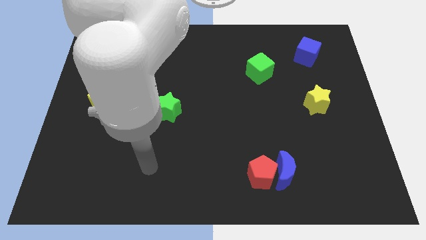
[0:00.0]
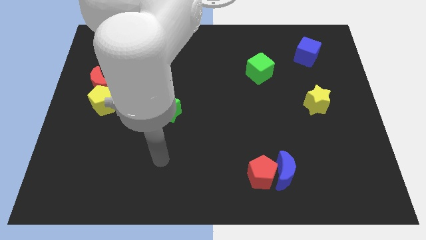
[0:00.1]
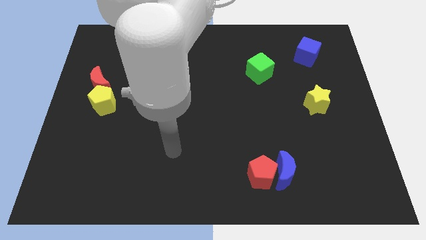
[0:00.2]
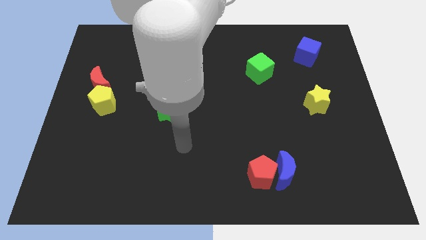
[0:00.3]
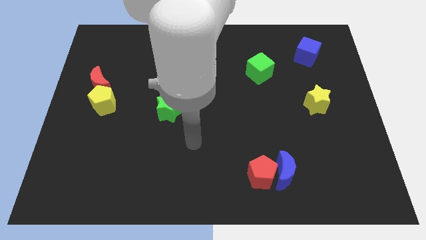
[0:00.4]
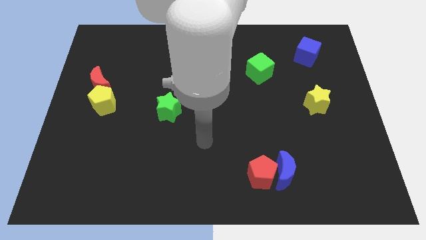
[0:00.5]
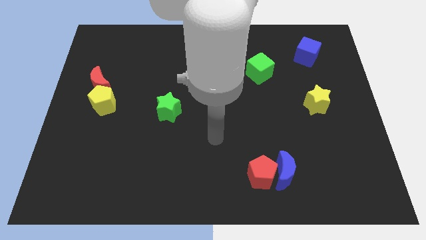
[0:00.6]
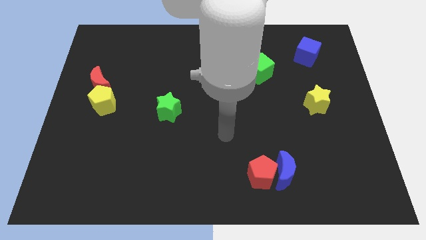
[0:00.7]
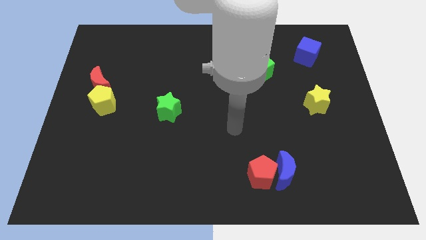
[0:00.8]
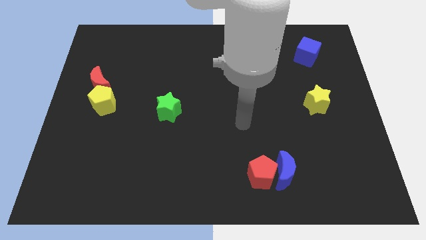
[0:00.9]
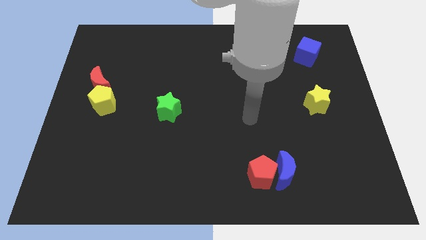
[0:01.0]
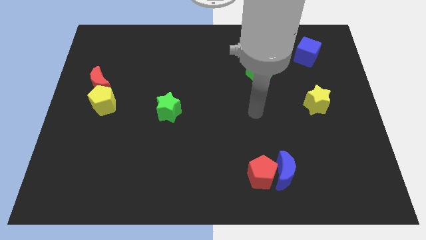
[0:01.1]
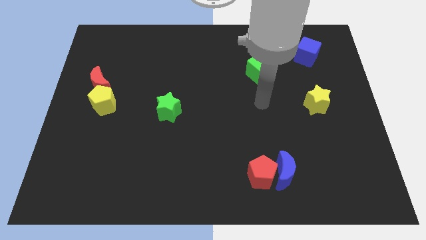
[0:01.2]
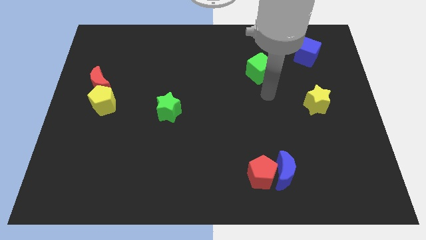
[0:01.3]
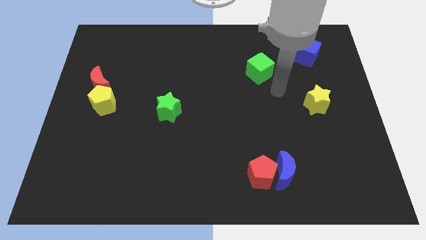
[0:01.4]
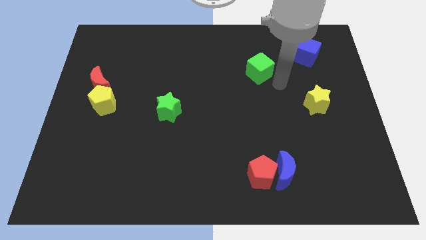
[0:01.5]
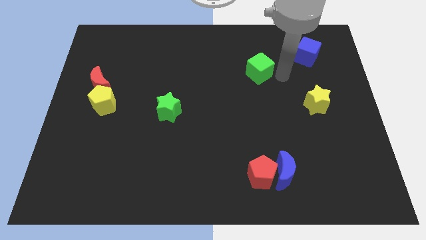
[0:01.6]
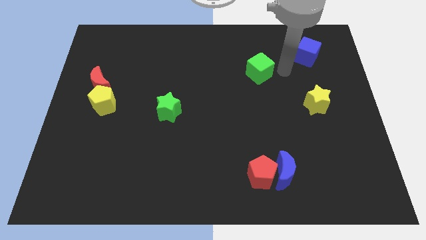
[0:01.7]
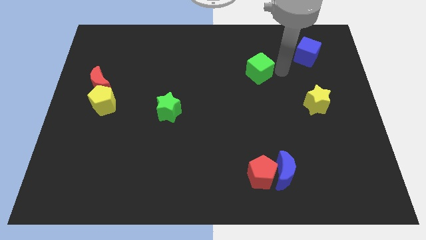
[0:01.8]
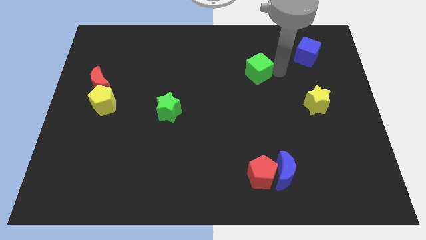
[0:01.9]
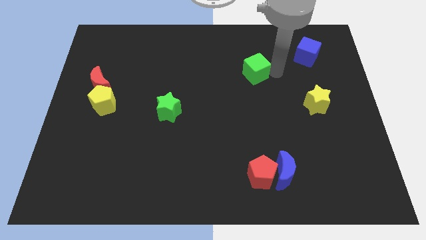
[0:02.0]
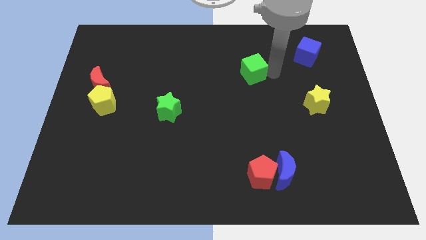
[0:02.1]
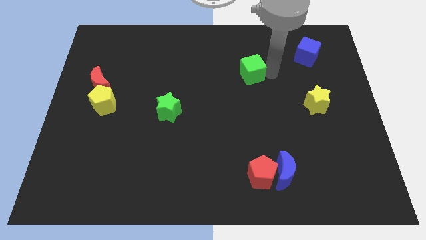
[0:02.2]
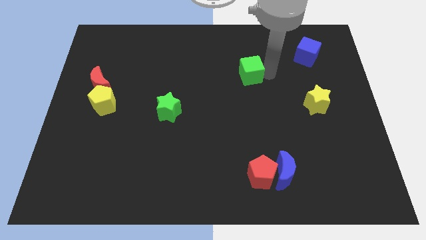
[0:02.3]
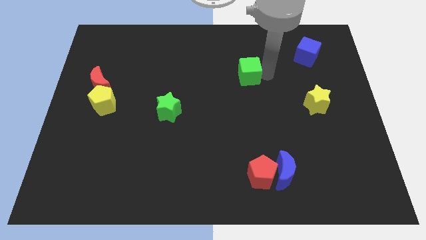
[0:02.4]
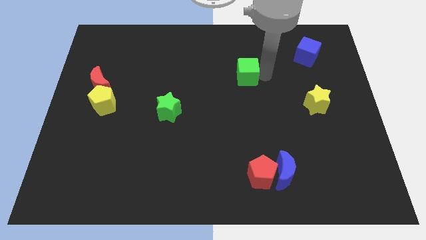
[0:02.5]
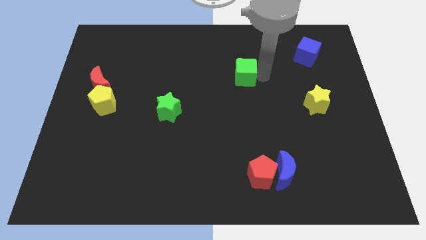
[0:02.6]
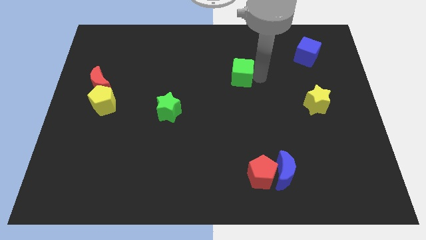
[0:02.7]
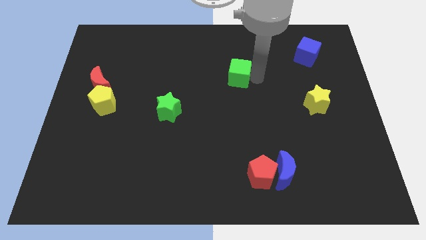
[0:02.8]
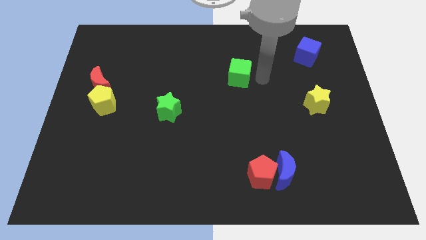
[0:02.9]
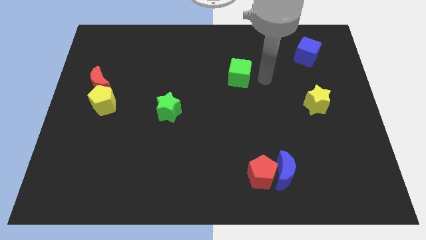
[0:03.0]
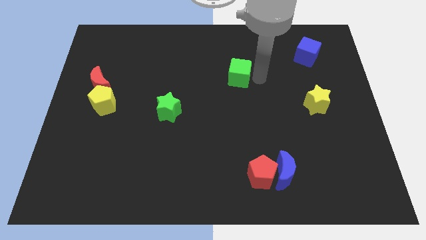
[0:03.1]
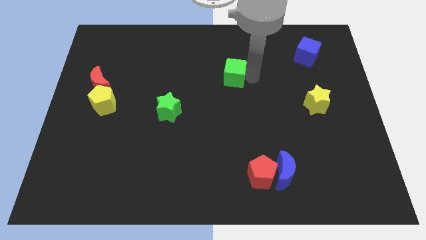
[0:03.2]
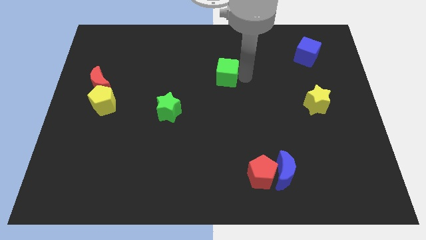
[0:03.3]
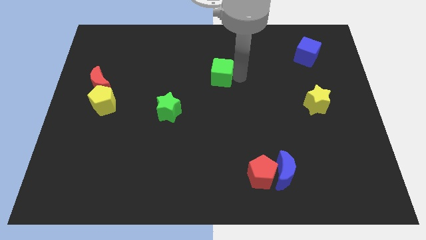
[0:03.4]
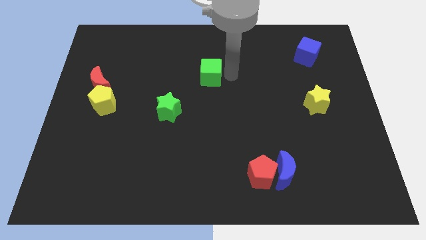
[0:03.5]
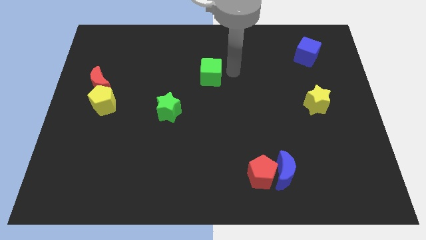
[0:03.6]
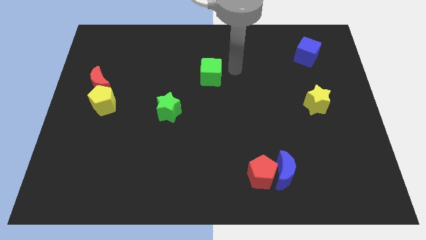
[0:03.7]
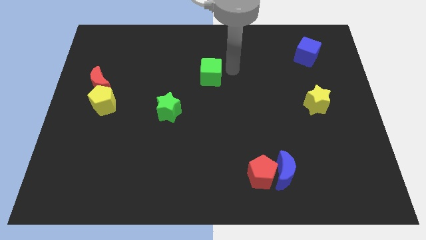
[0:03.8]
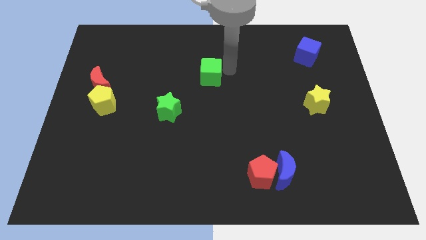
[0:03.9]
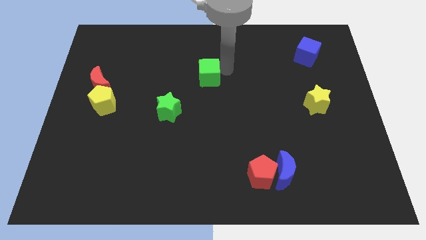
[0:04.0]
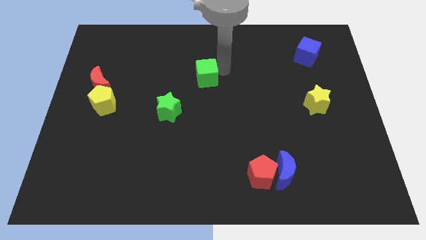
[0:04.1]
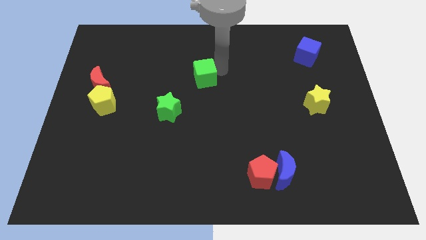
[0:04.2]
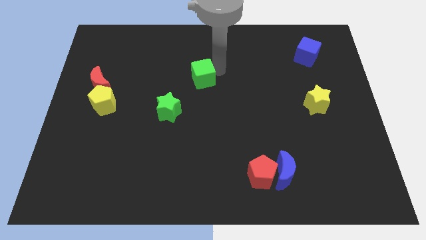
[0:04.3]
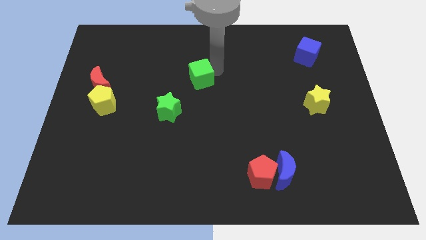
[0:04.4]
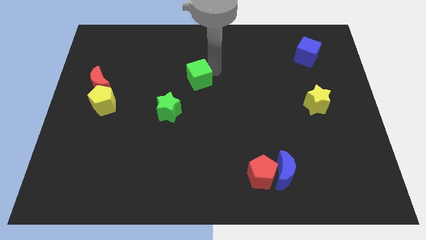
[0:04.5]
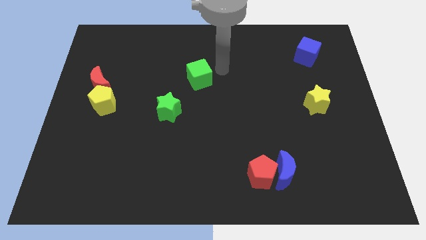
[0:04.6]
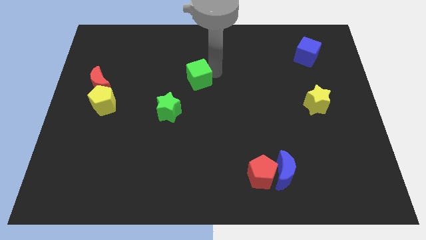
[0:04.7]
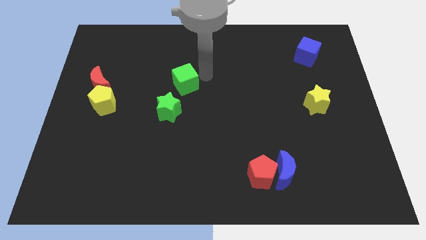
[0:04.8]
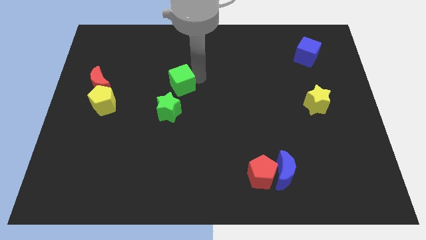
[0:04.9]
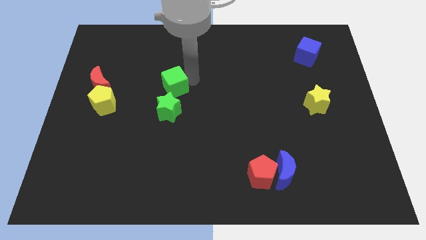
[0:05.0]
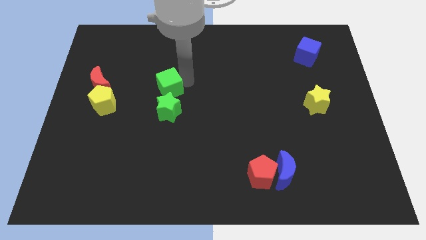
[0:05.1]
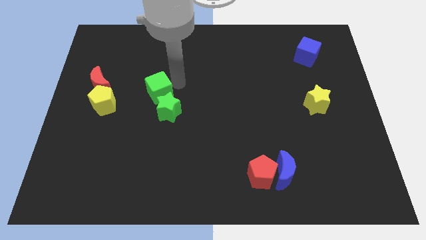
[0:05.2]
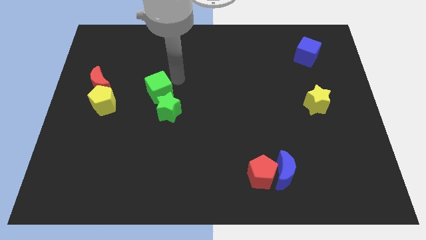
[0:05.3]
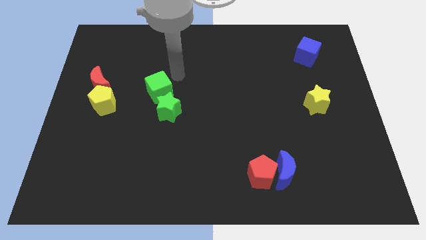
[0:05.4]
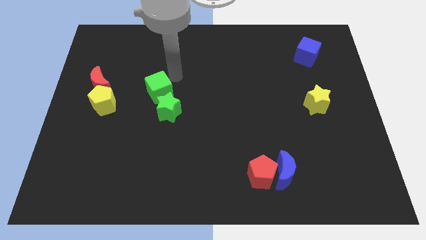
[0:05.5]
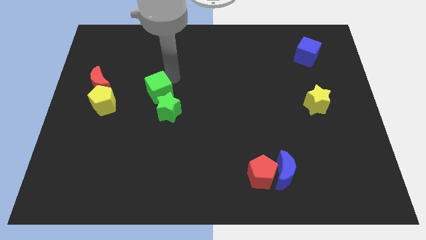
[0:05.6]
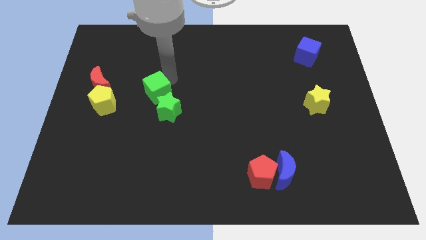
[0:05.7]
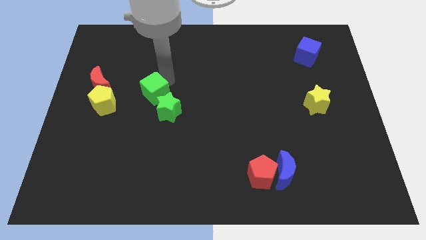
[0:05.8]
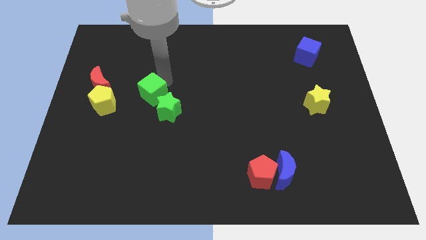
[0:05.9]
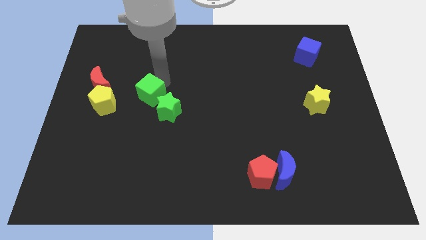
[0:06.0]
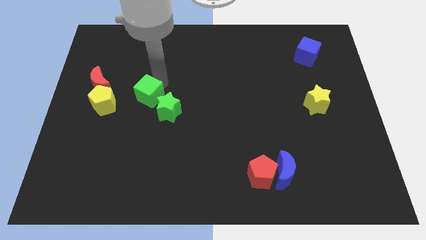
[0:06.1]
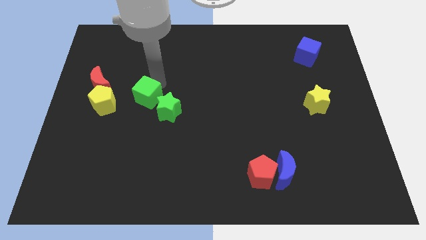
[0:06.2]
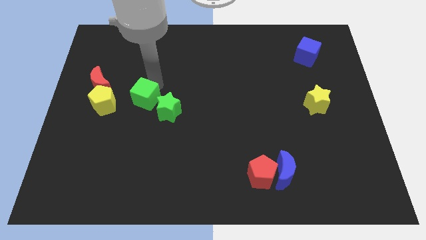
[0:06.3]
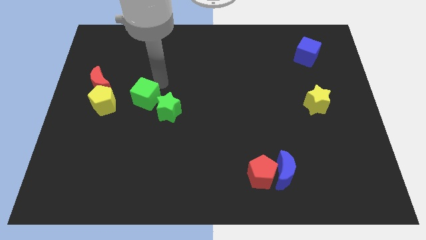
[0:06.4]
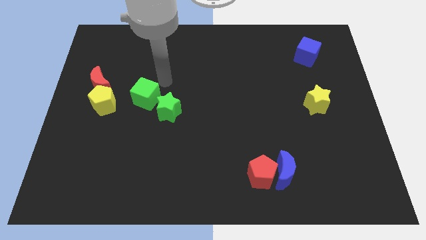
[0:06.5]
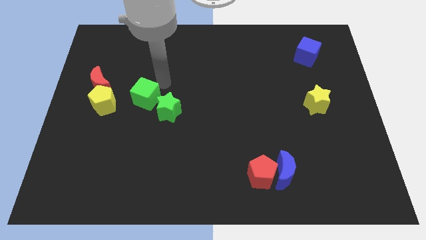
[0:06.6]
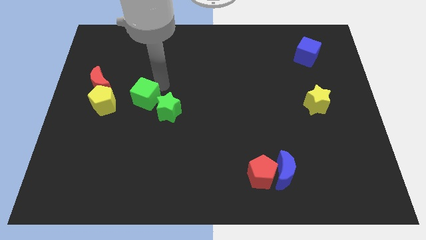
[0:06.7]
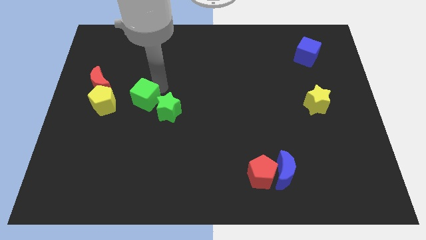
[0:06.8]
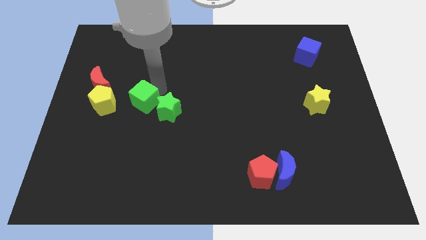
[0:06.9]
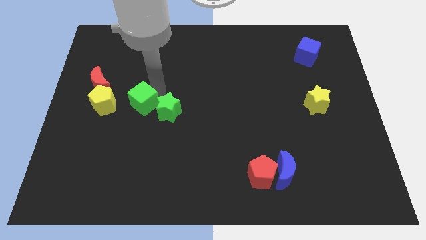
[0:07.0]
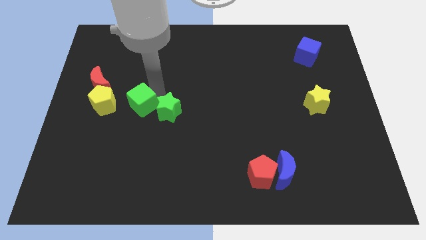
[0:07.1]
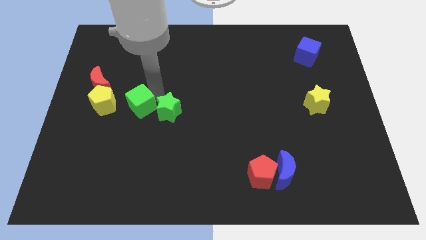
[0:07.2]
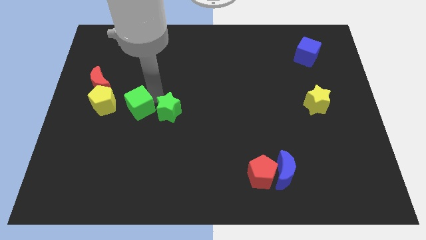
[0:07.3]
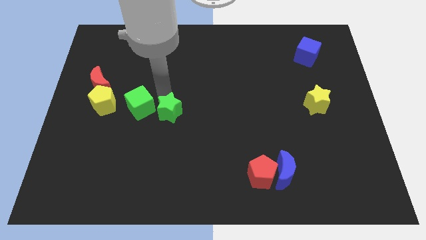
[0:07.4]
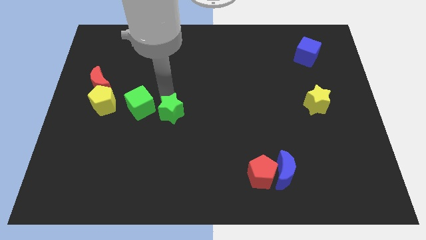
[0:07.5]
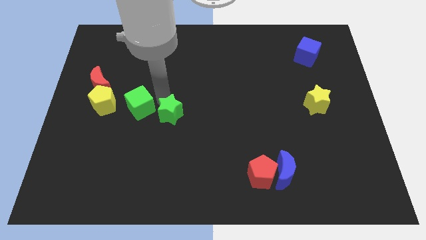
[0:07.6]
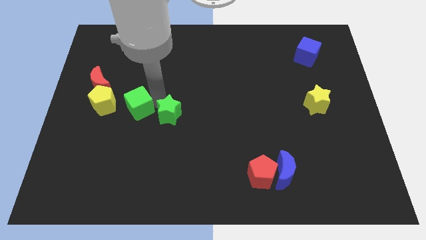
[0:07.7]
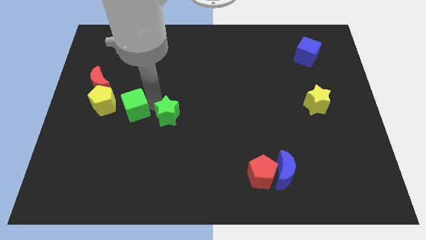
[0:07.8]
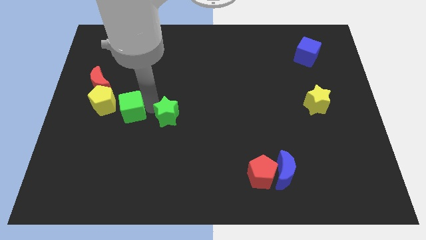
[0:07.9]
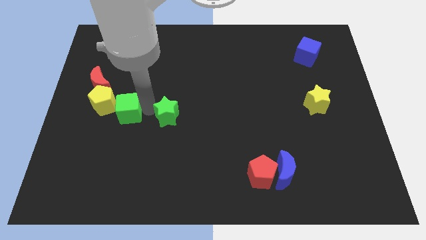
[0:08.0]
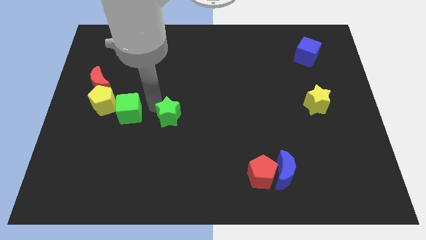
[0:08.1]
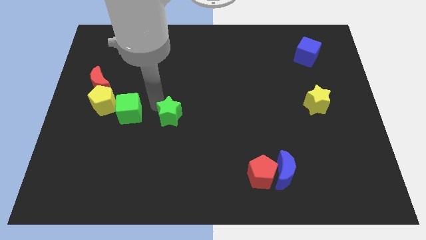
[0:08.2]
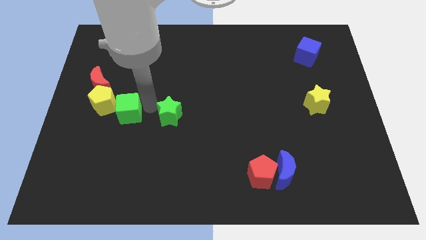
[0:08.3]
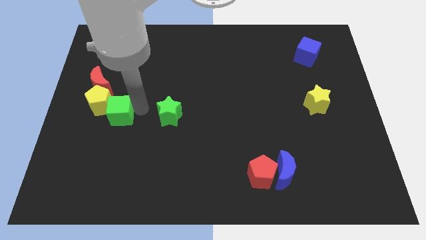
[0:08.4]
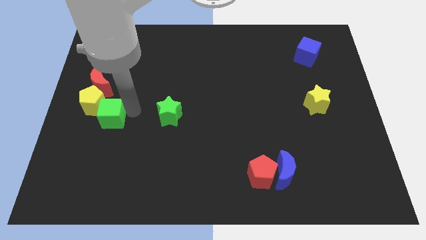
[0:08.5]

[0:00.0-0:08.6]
slide the green cube to the bottom of the red moon
